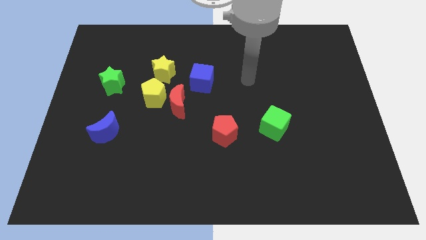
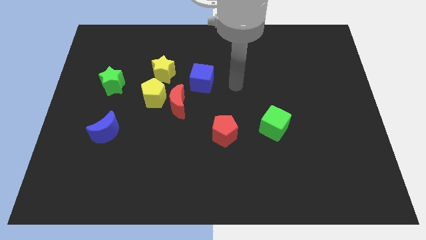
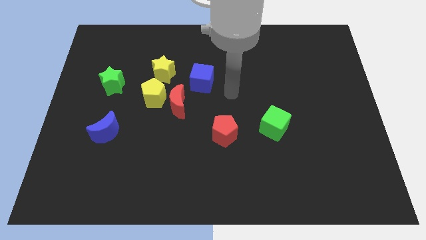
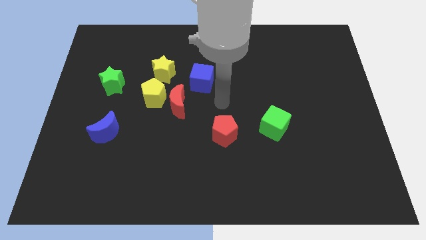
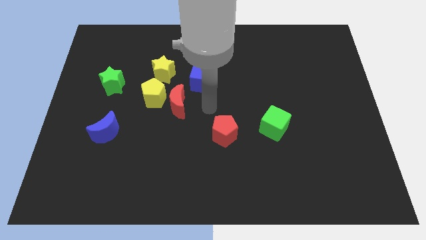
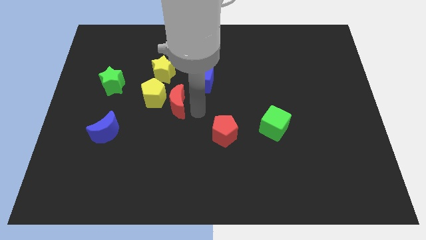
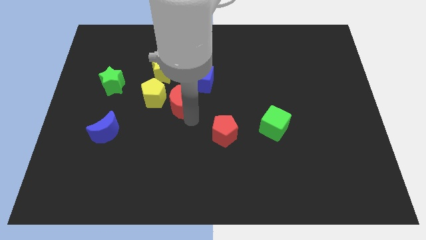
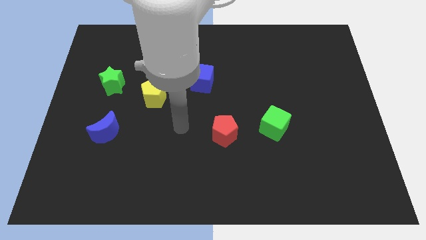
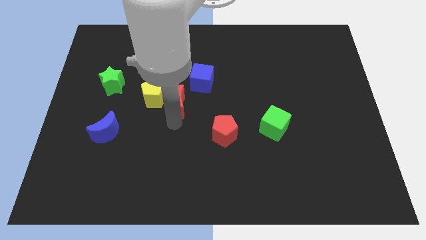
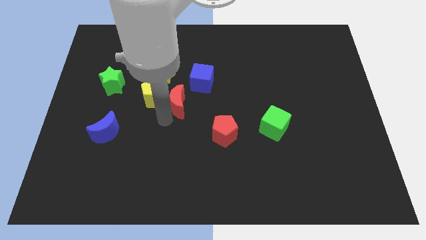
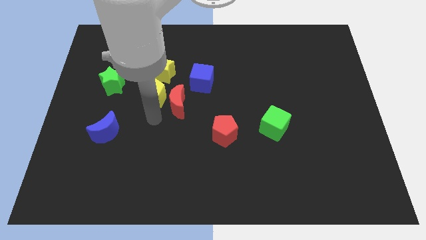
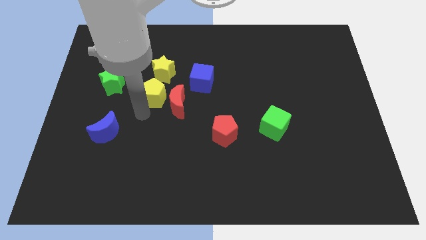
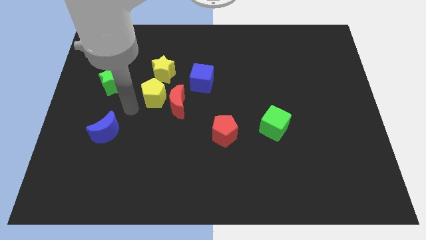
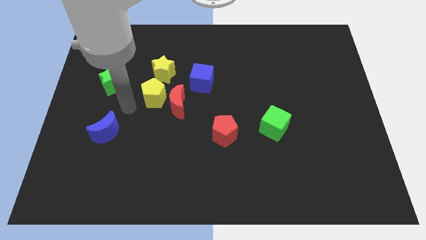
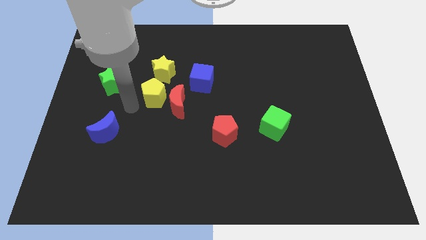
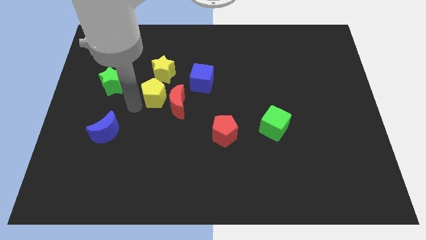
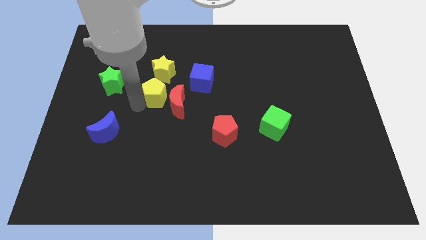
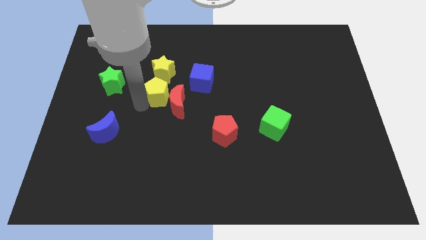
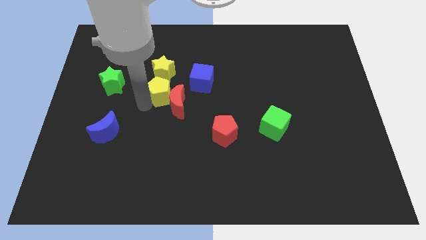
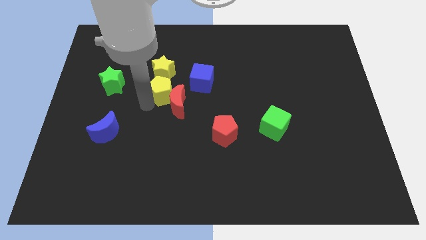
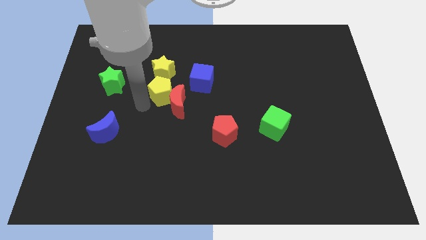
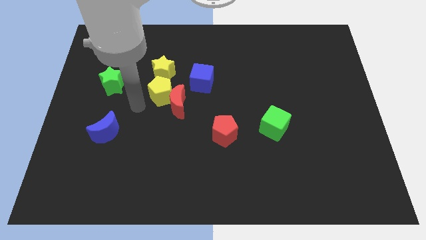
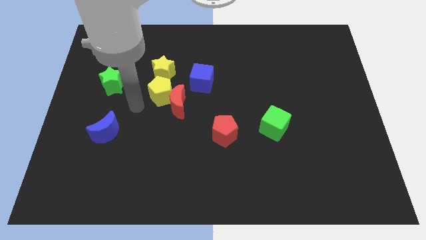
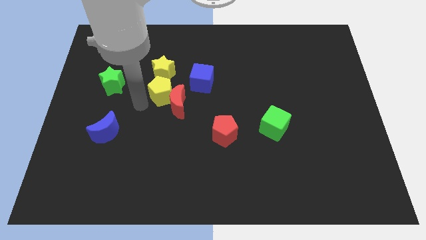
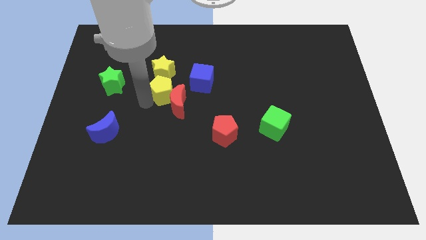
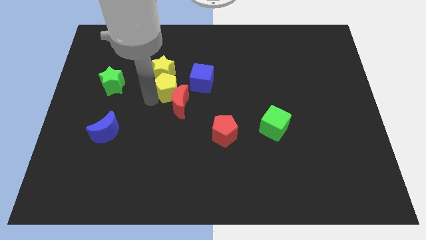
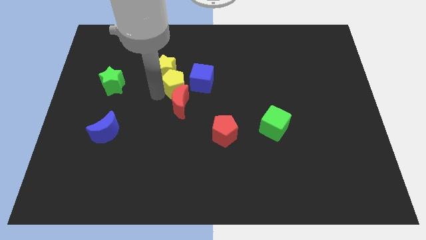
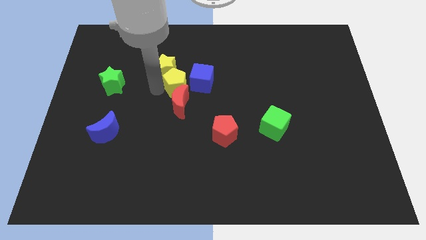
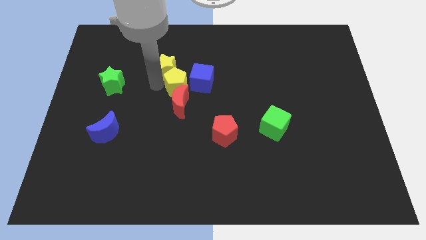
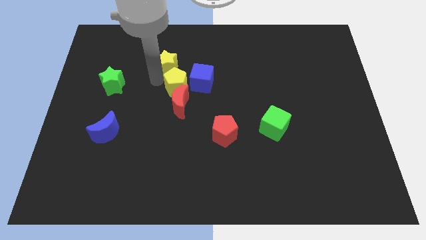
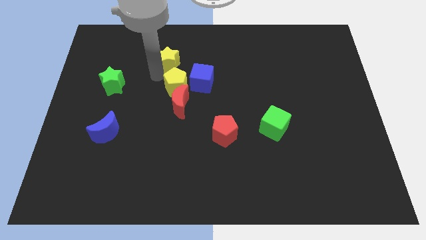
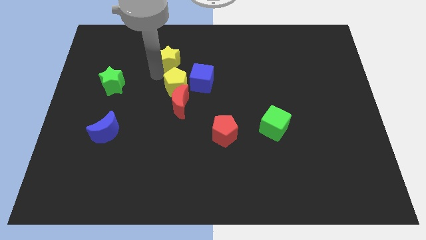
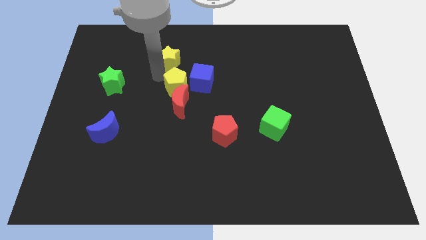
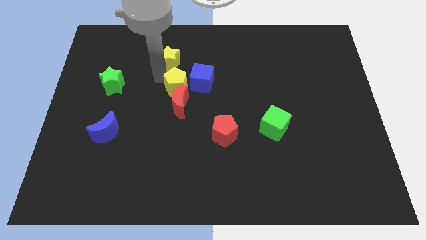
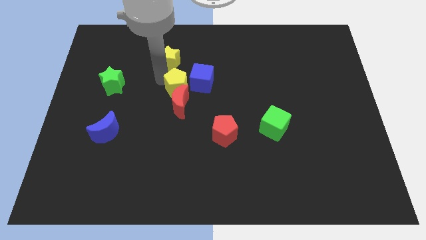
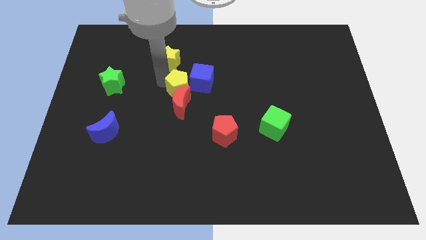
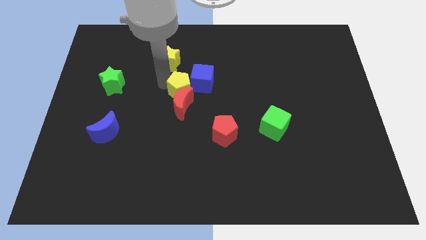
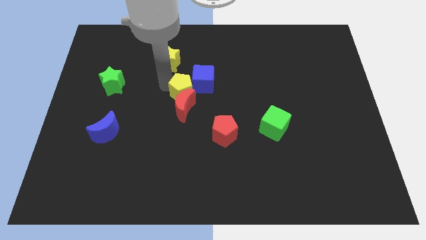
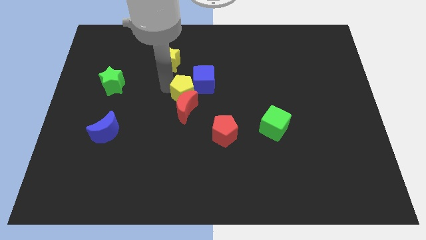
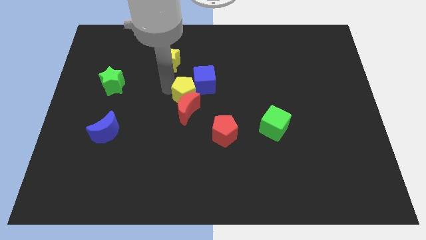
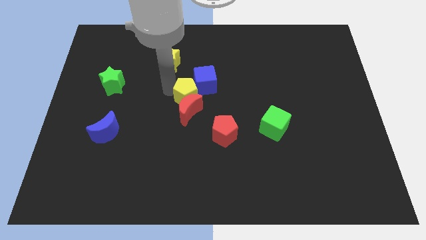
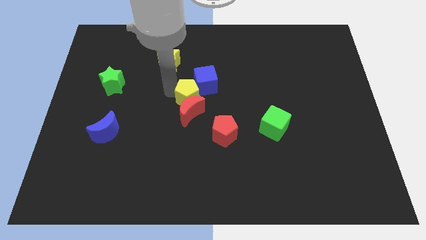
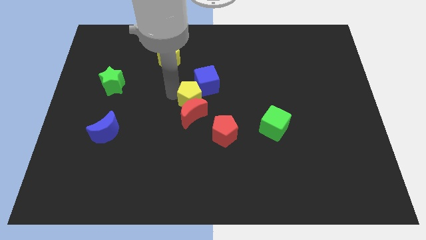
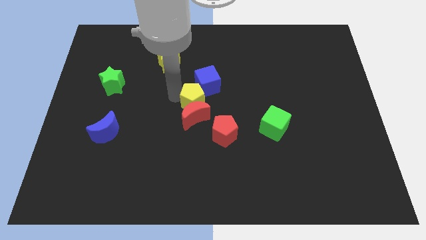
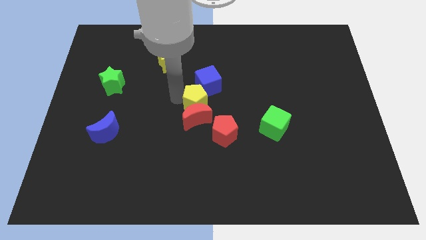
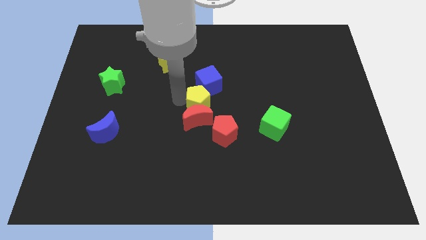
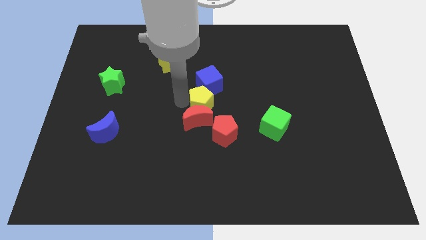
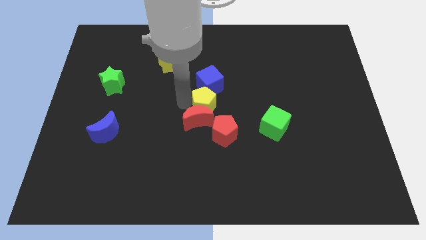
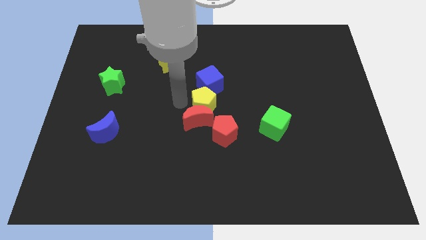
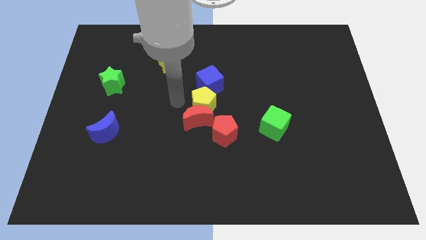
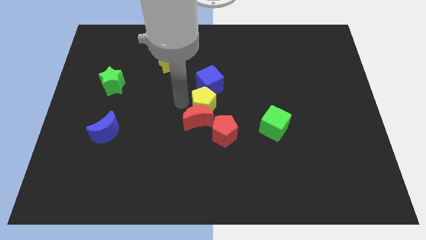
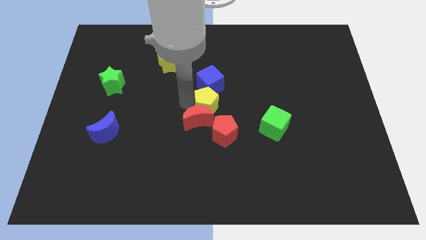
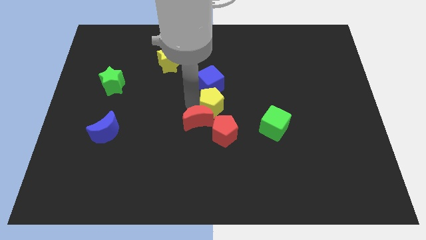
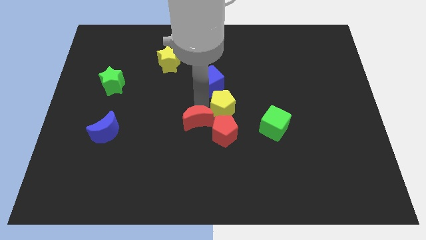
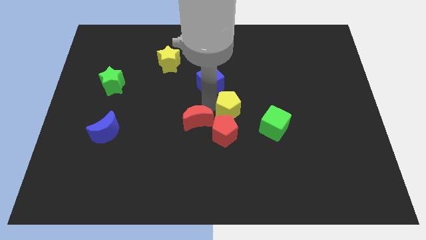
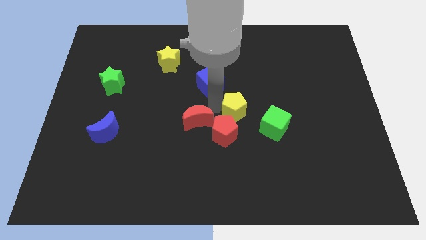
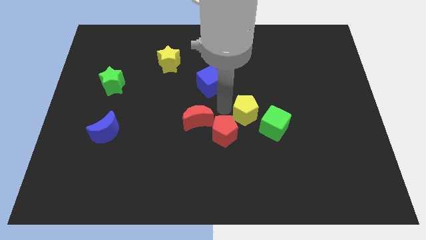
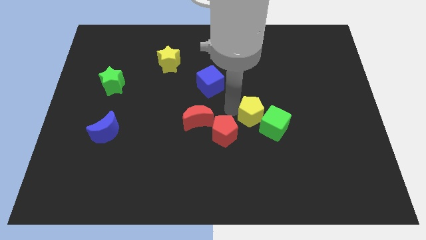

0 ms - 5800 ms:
push the yellow pentagon close to the green cube

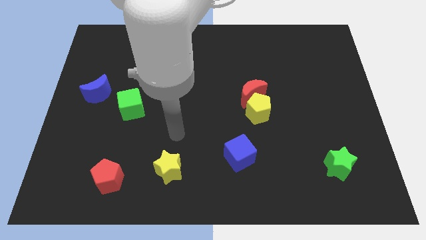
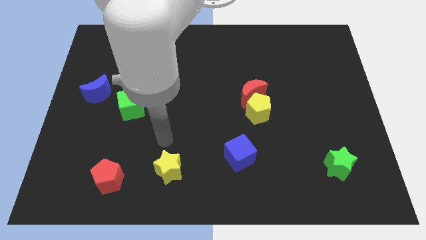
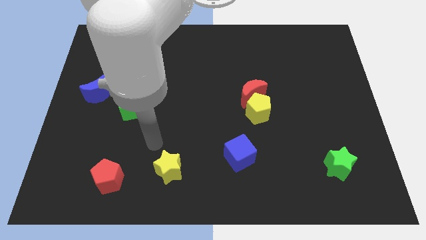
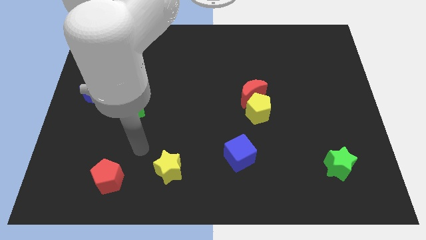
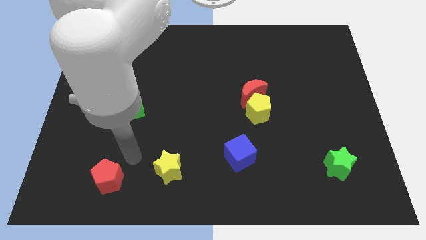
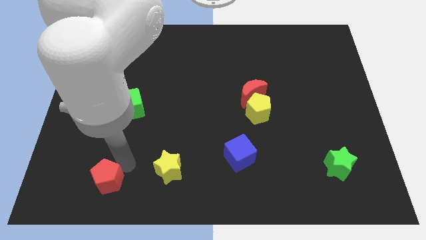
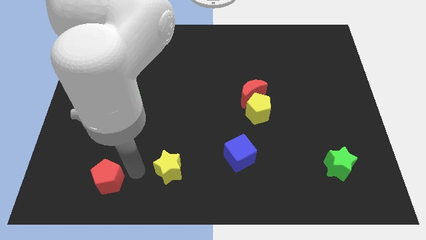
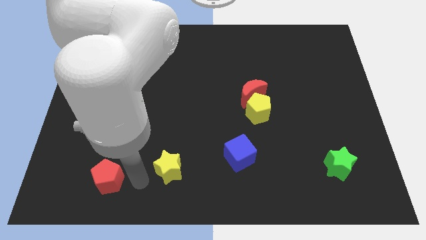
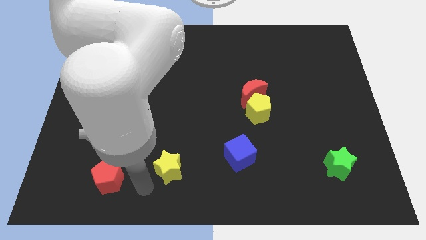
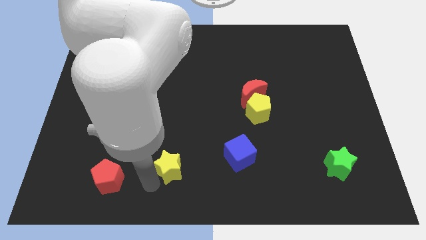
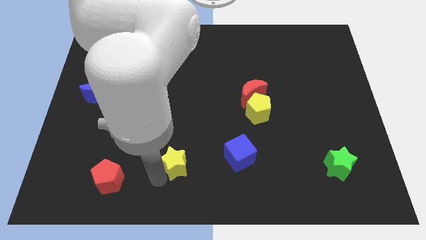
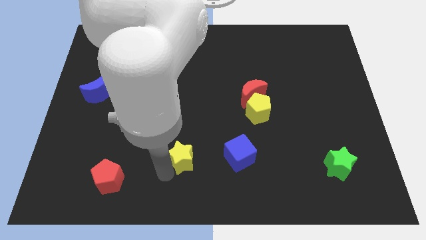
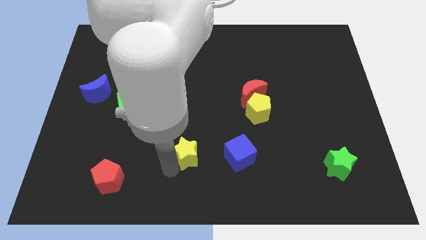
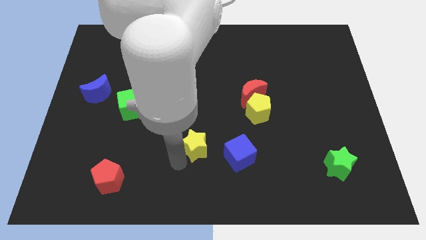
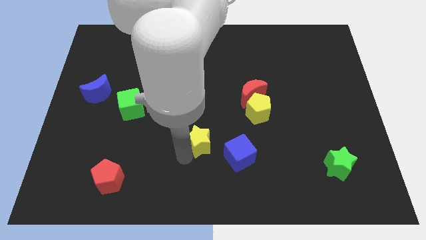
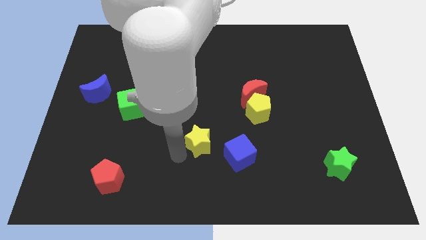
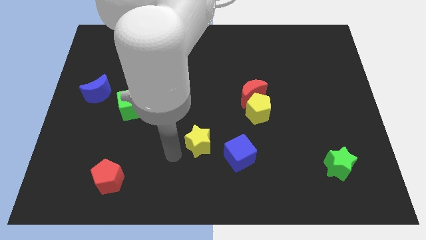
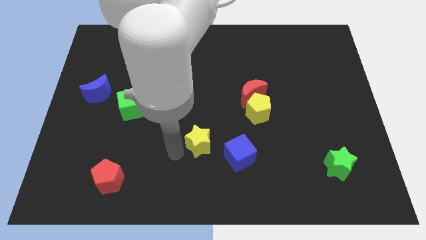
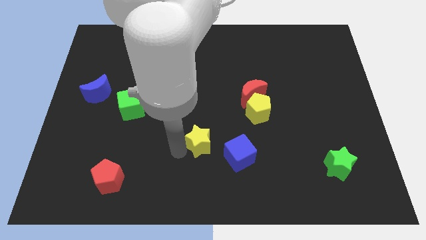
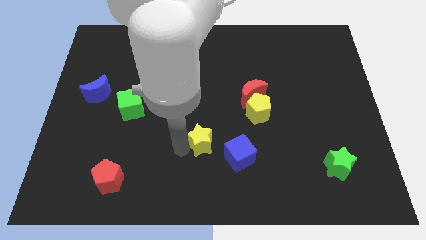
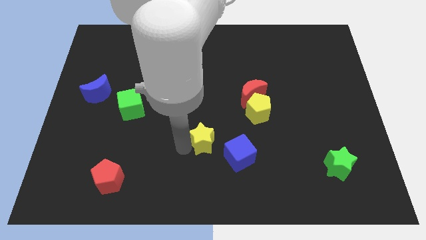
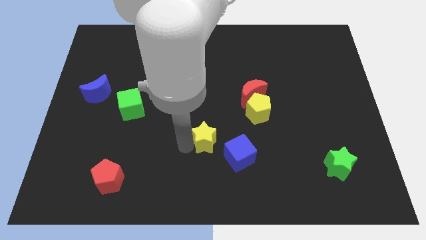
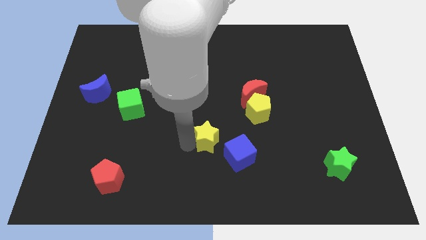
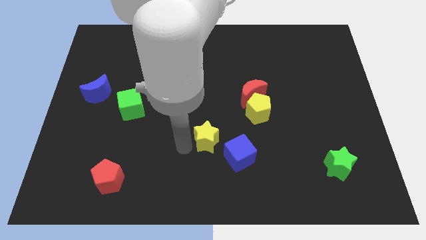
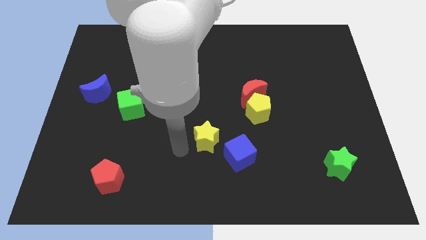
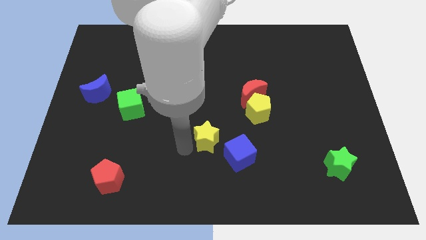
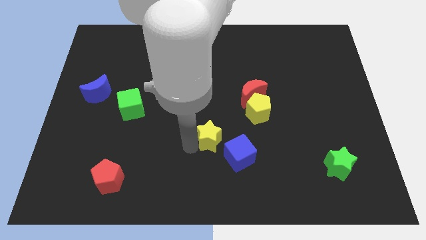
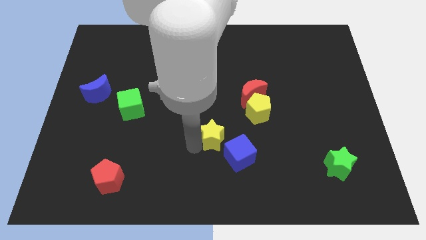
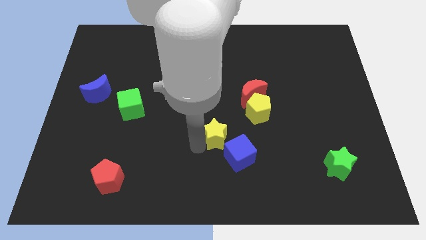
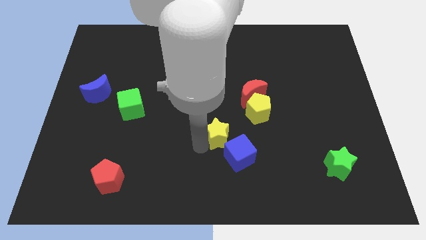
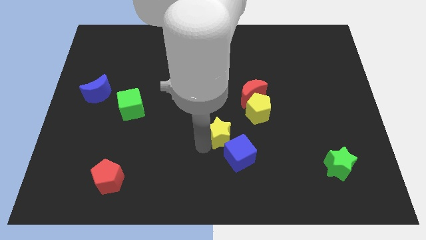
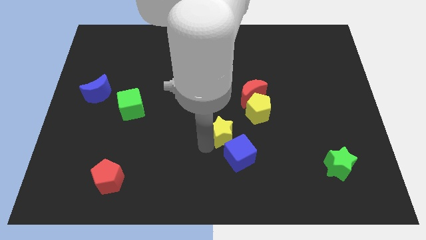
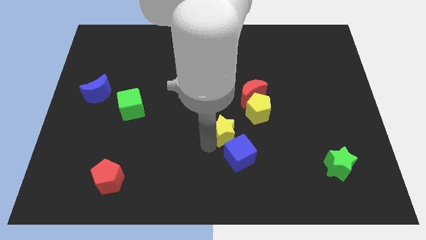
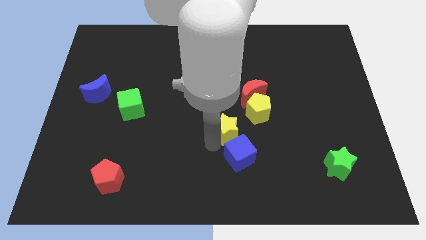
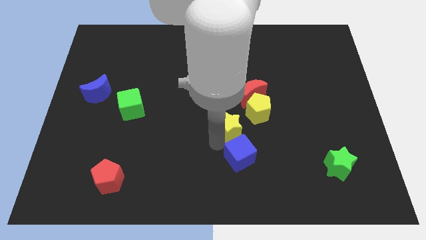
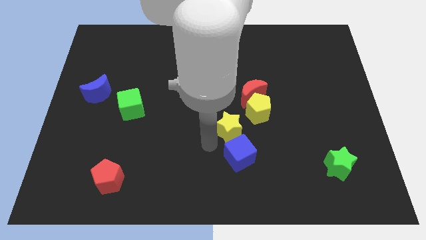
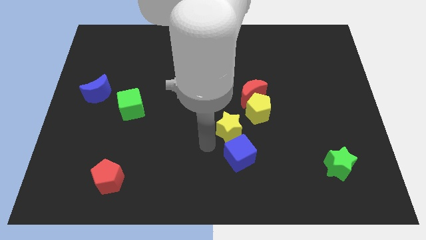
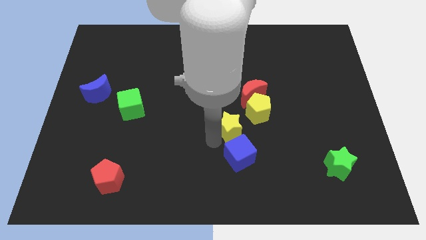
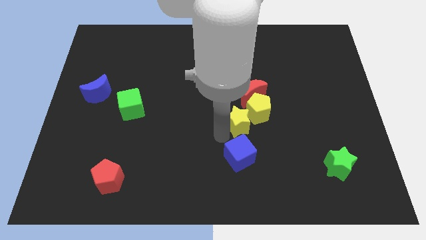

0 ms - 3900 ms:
slide the yellow star next to the yellow pentagon
